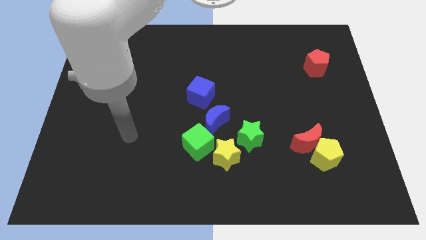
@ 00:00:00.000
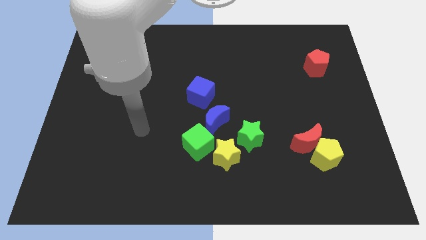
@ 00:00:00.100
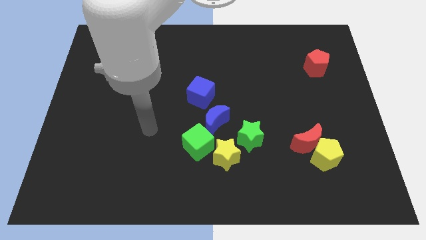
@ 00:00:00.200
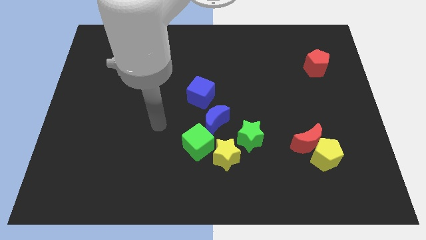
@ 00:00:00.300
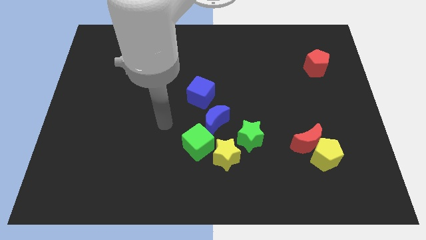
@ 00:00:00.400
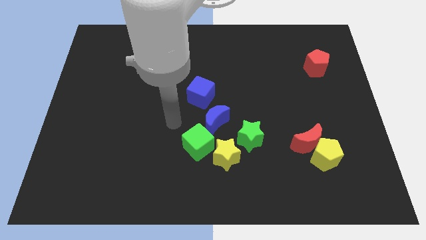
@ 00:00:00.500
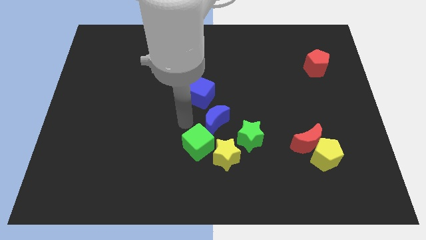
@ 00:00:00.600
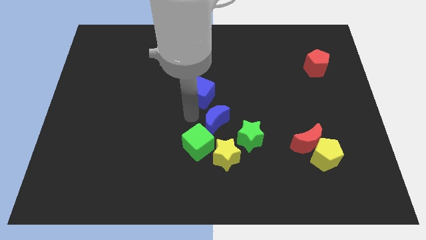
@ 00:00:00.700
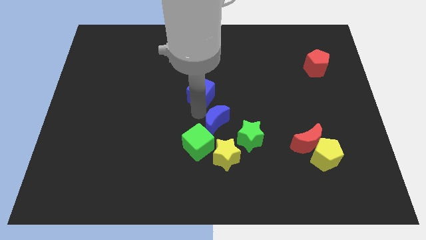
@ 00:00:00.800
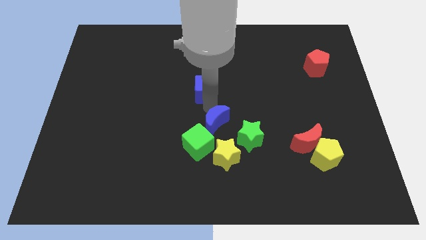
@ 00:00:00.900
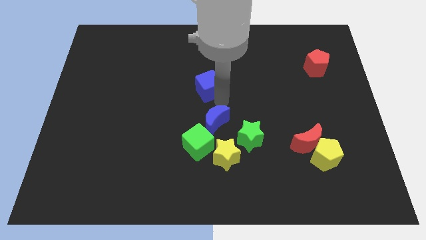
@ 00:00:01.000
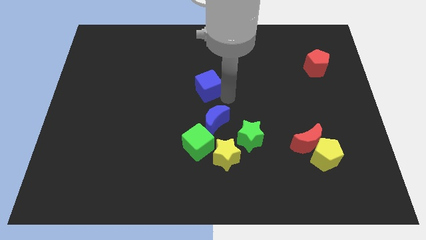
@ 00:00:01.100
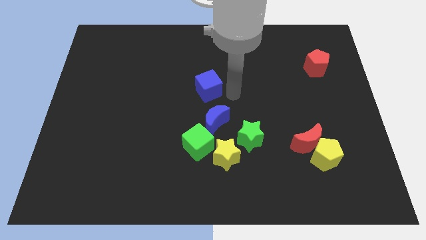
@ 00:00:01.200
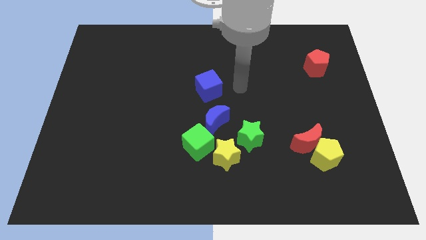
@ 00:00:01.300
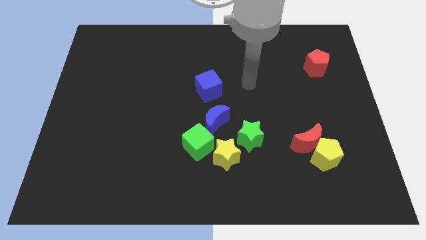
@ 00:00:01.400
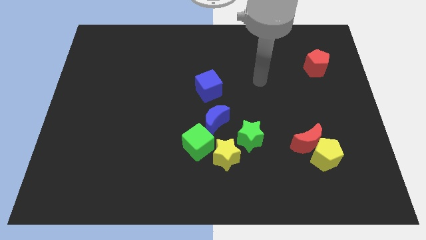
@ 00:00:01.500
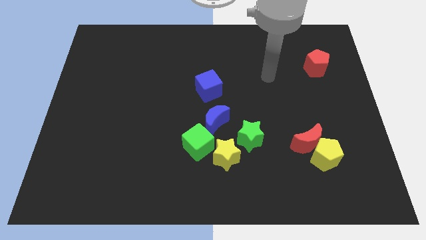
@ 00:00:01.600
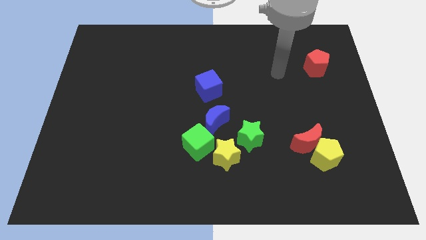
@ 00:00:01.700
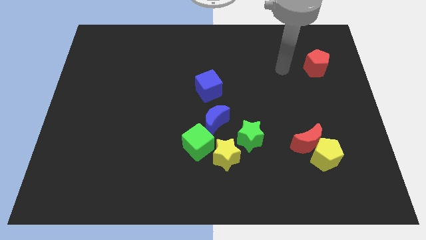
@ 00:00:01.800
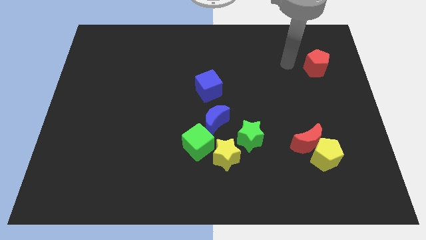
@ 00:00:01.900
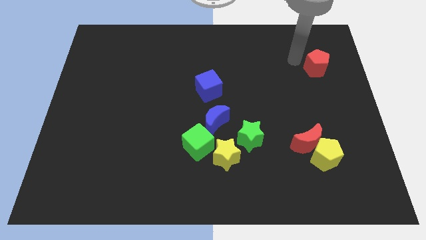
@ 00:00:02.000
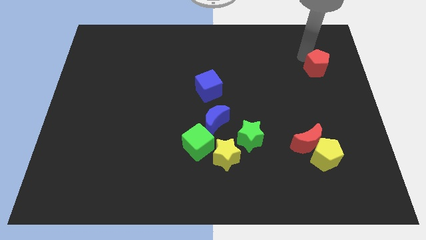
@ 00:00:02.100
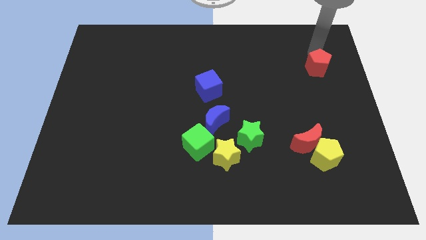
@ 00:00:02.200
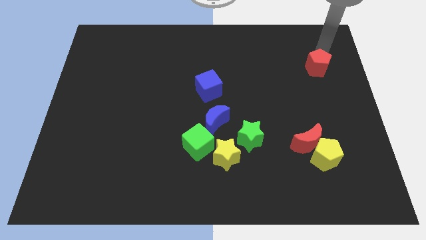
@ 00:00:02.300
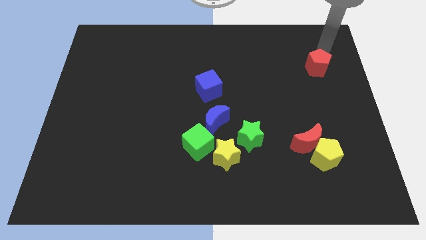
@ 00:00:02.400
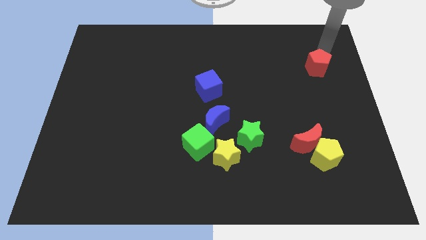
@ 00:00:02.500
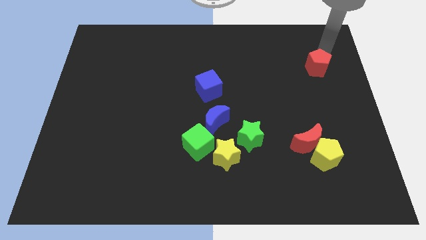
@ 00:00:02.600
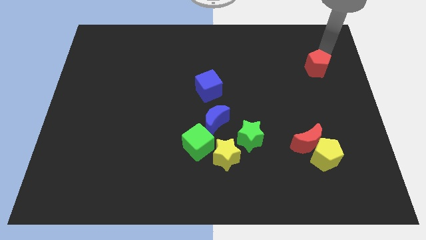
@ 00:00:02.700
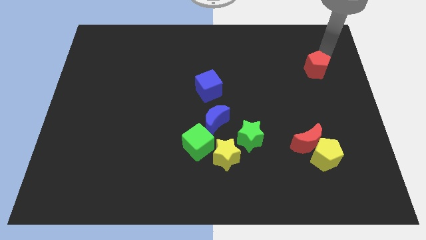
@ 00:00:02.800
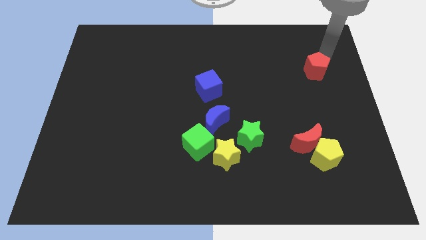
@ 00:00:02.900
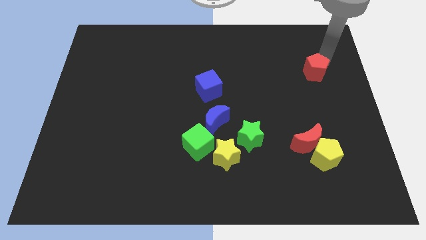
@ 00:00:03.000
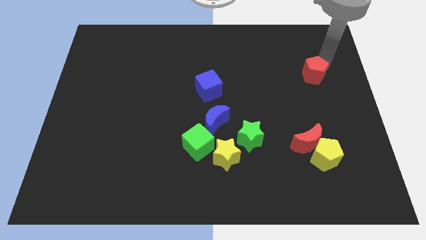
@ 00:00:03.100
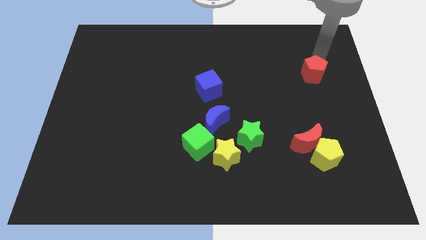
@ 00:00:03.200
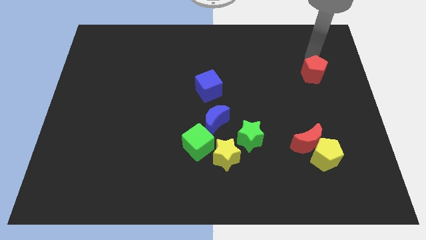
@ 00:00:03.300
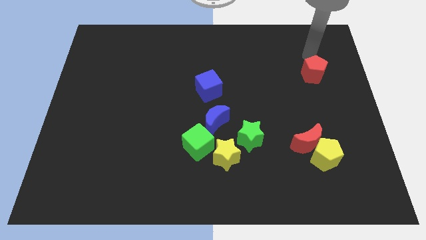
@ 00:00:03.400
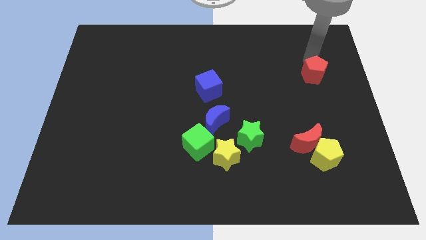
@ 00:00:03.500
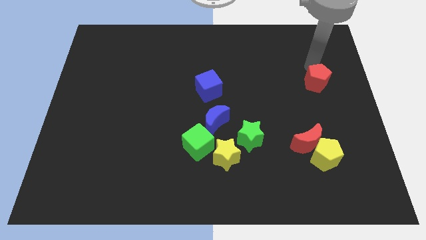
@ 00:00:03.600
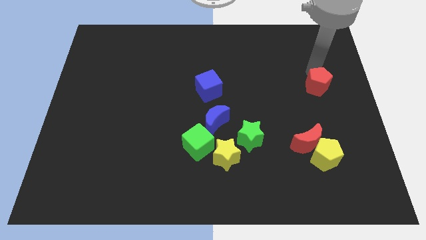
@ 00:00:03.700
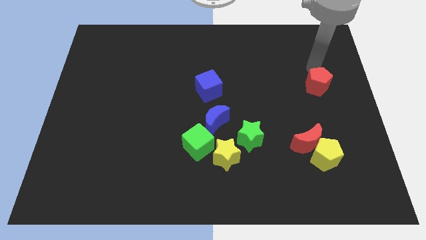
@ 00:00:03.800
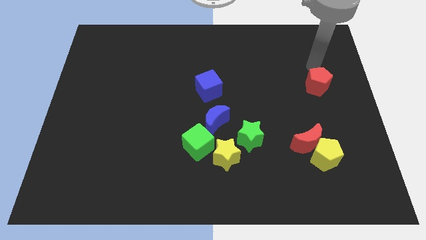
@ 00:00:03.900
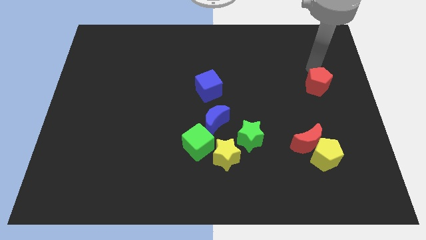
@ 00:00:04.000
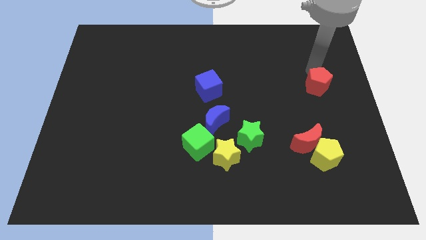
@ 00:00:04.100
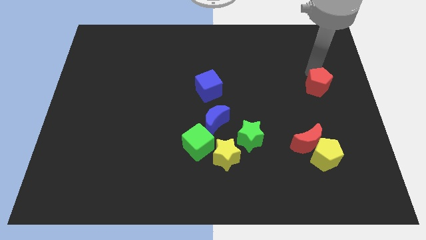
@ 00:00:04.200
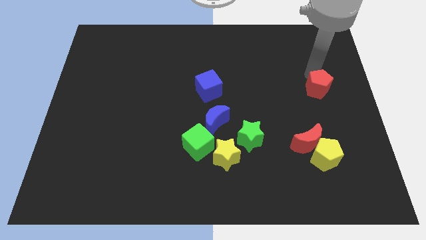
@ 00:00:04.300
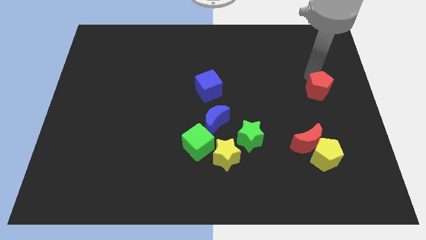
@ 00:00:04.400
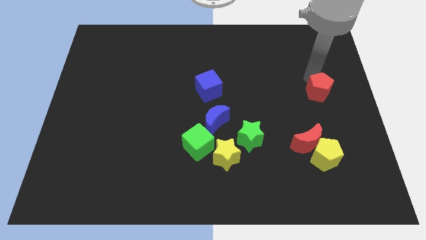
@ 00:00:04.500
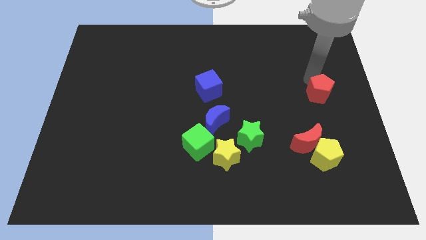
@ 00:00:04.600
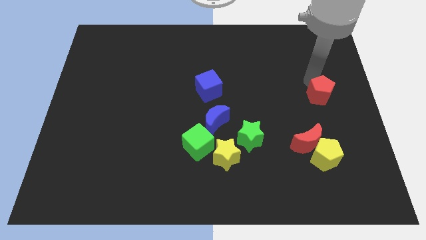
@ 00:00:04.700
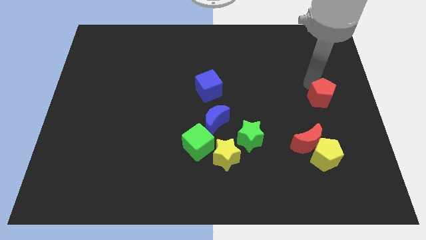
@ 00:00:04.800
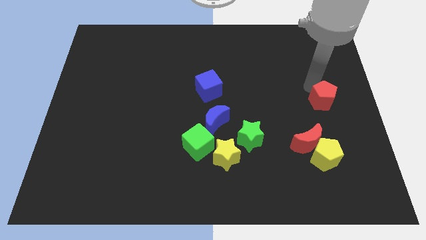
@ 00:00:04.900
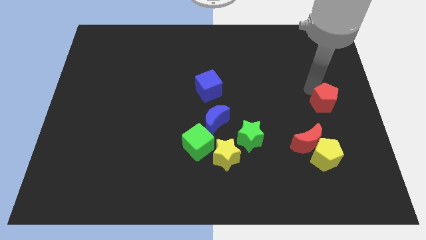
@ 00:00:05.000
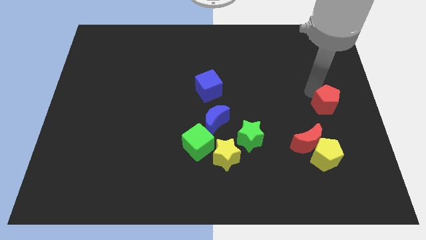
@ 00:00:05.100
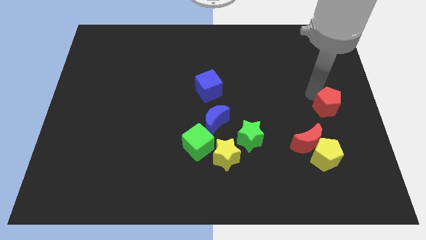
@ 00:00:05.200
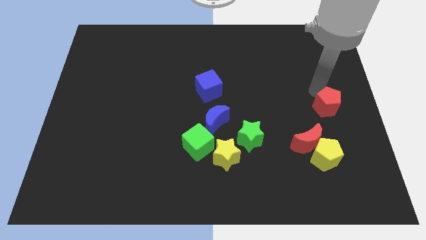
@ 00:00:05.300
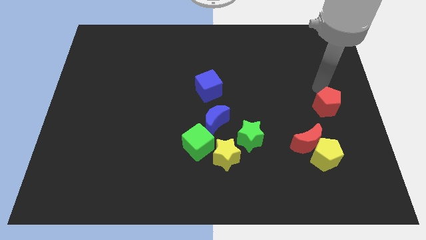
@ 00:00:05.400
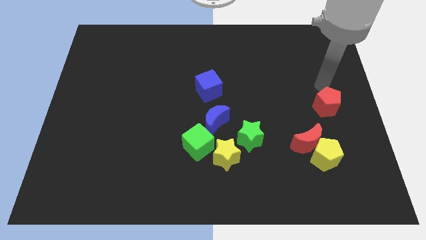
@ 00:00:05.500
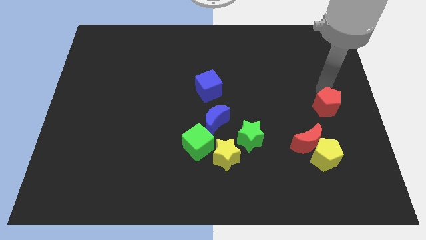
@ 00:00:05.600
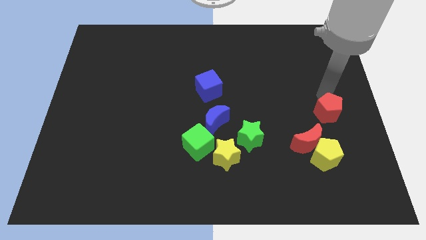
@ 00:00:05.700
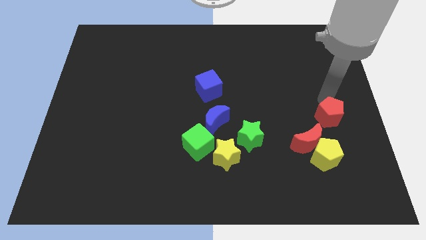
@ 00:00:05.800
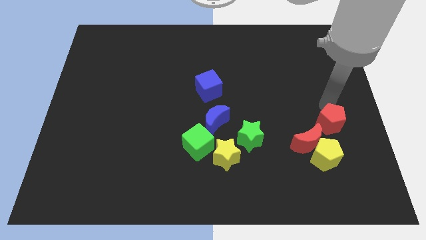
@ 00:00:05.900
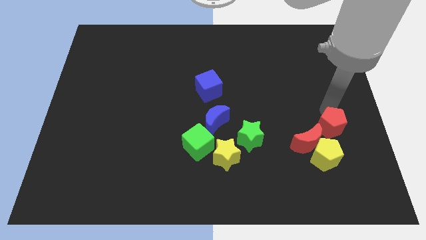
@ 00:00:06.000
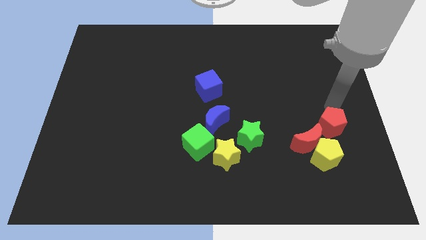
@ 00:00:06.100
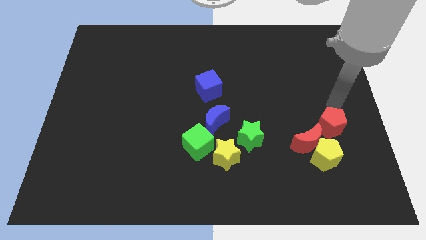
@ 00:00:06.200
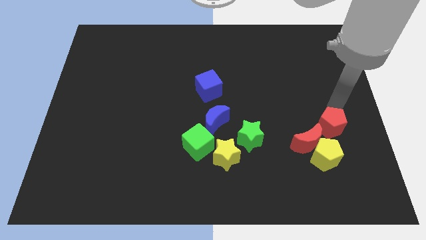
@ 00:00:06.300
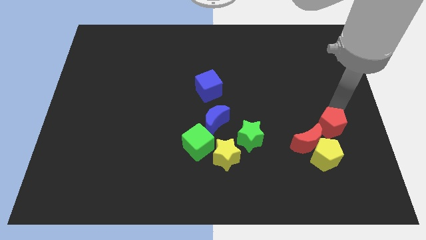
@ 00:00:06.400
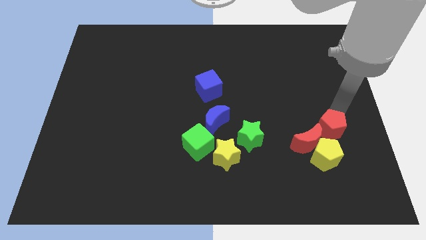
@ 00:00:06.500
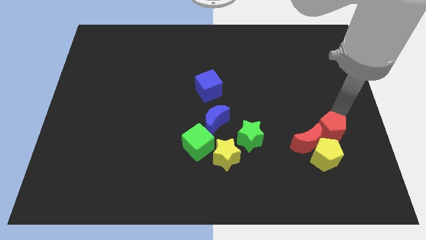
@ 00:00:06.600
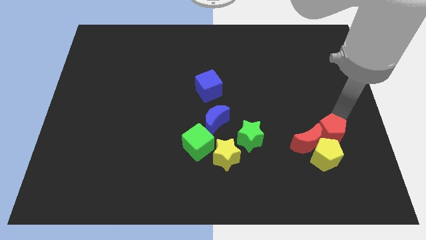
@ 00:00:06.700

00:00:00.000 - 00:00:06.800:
move the red pentagon next to the yellow pentagon
